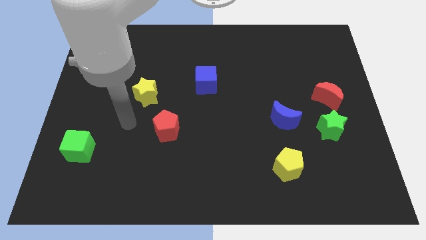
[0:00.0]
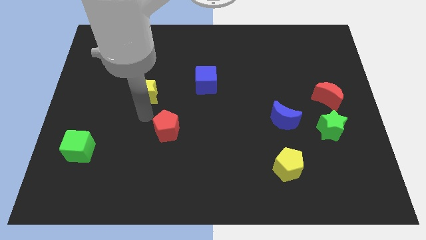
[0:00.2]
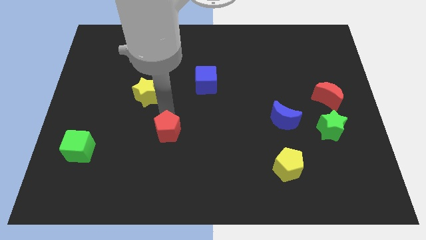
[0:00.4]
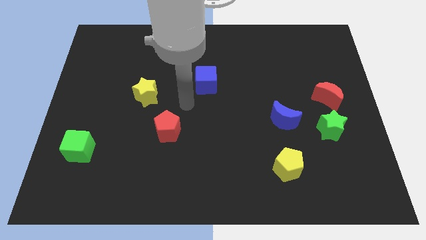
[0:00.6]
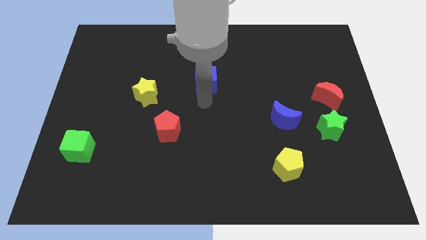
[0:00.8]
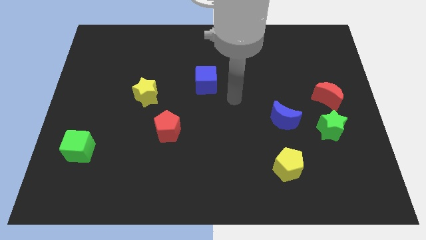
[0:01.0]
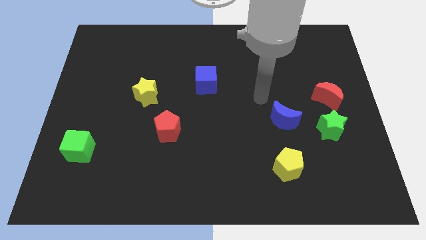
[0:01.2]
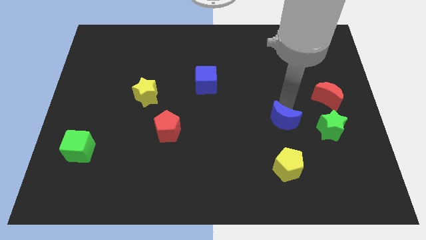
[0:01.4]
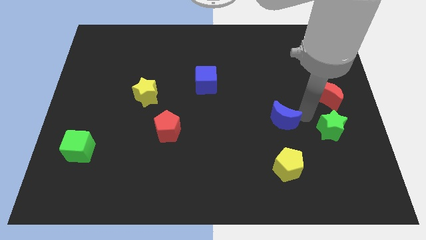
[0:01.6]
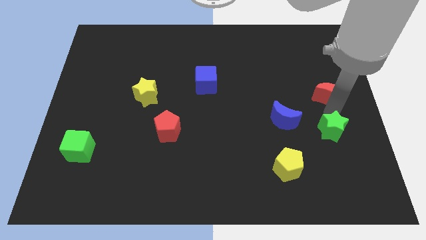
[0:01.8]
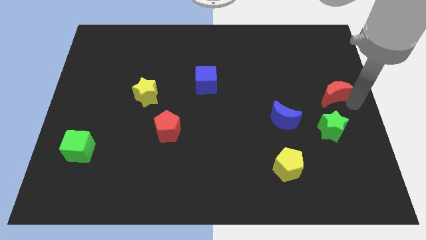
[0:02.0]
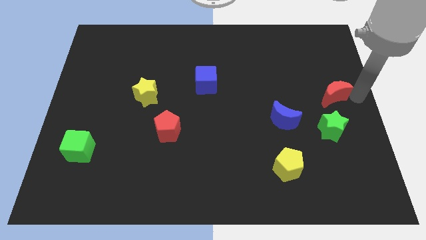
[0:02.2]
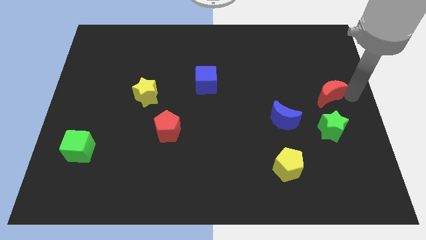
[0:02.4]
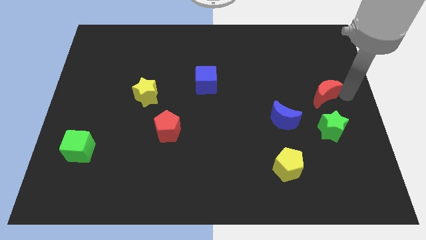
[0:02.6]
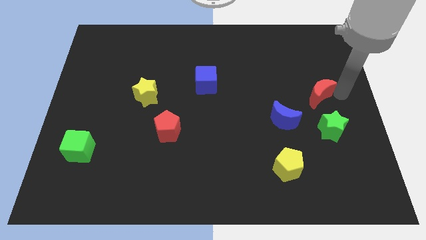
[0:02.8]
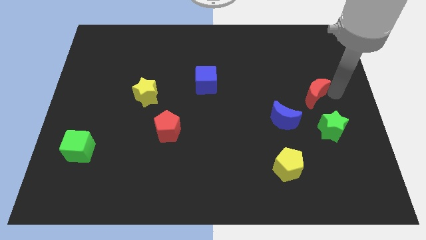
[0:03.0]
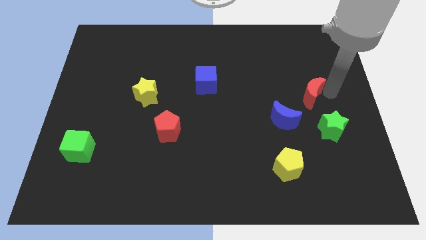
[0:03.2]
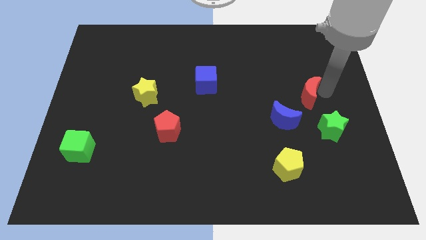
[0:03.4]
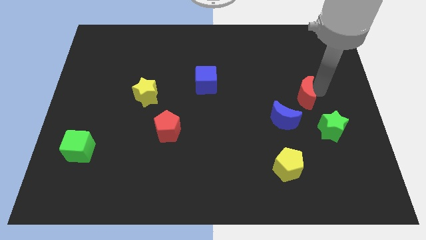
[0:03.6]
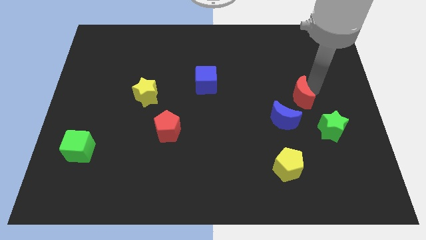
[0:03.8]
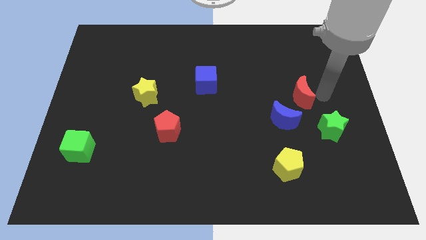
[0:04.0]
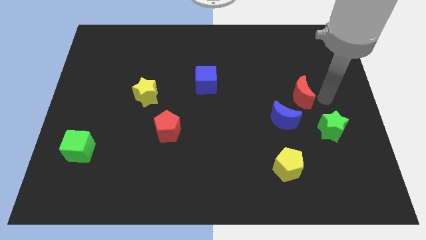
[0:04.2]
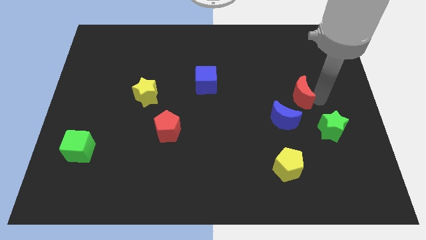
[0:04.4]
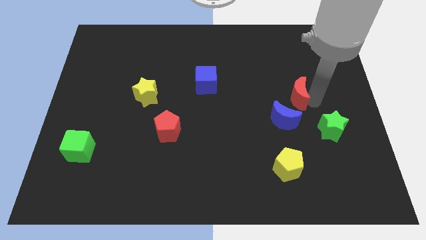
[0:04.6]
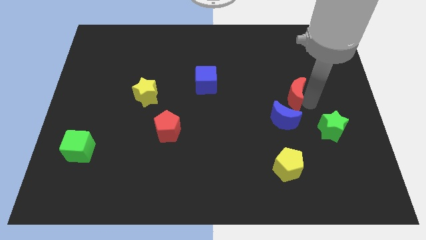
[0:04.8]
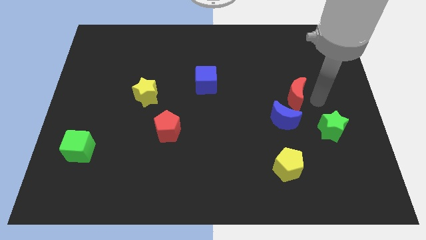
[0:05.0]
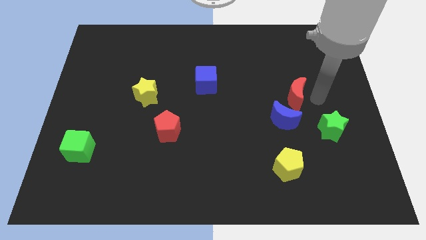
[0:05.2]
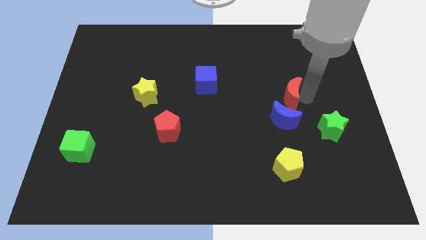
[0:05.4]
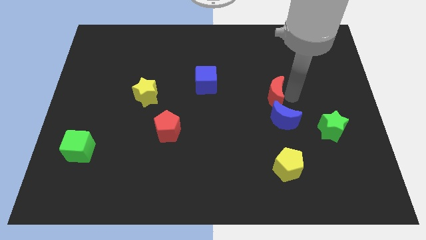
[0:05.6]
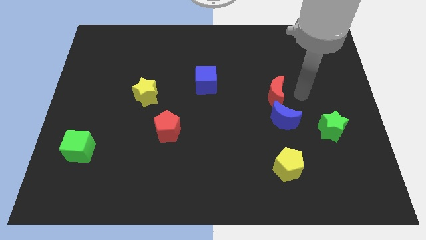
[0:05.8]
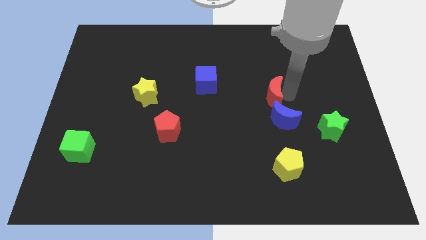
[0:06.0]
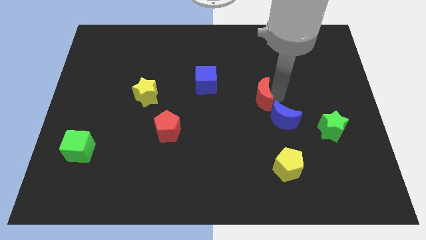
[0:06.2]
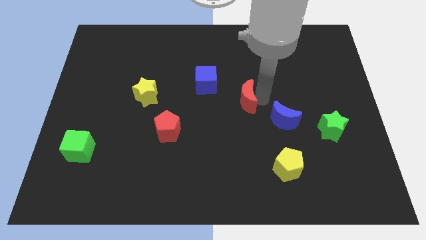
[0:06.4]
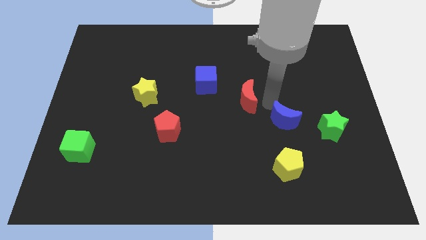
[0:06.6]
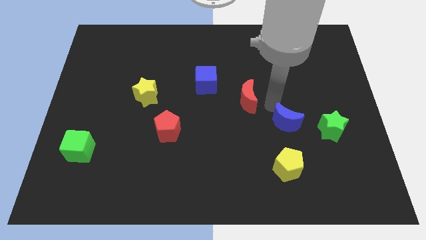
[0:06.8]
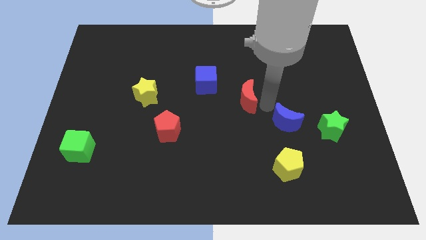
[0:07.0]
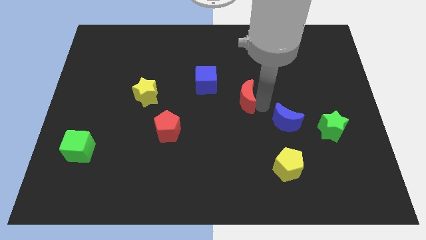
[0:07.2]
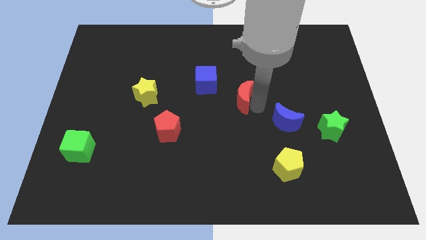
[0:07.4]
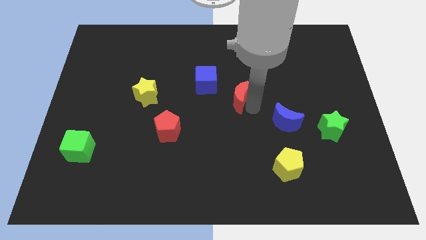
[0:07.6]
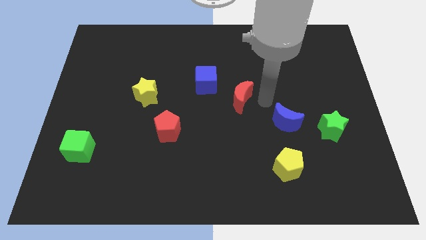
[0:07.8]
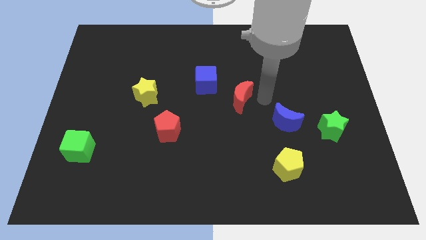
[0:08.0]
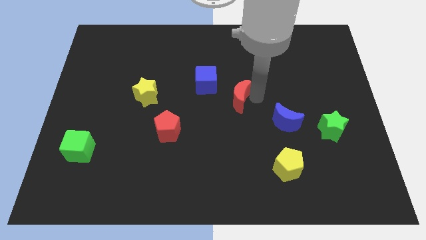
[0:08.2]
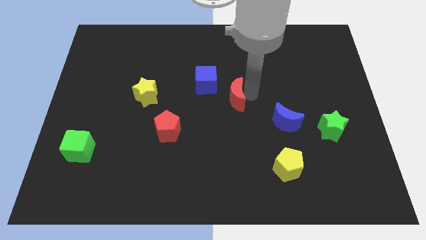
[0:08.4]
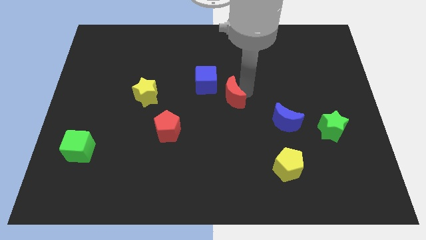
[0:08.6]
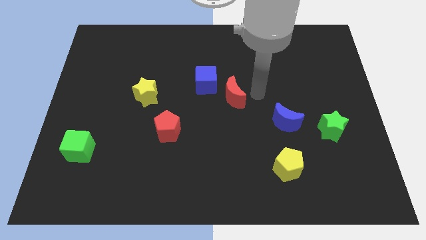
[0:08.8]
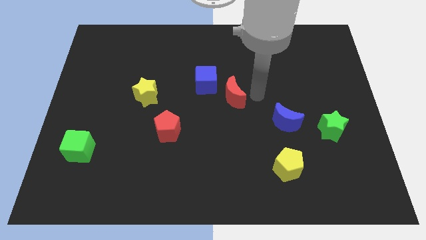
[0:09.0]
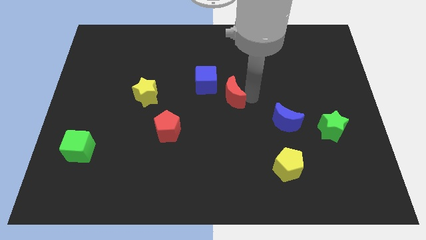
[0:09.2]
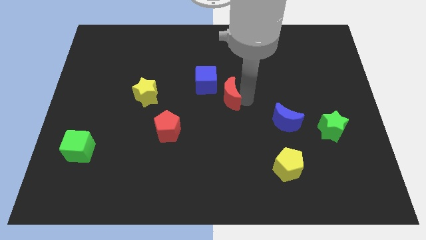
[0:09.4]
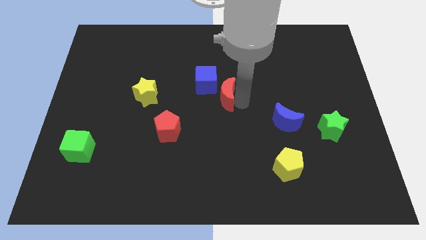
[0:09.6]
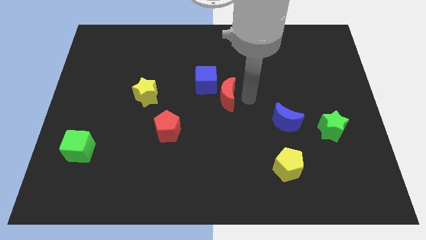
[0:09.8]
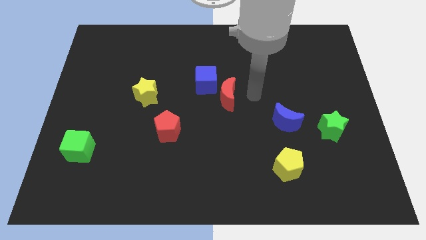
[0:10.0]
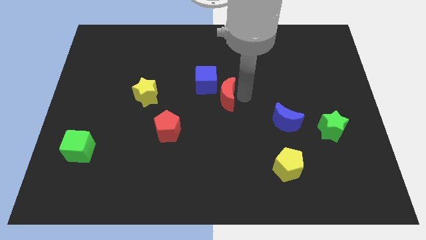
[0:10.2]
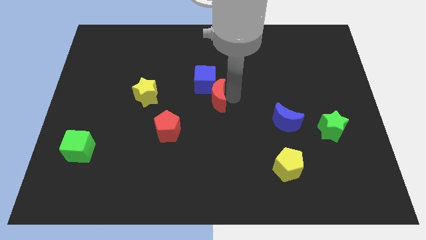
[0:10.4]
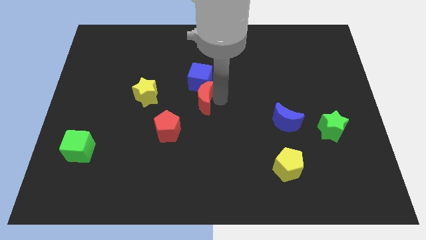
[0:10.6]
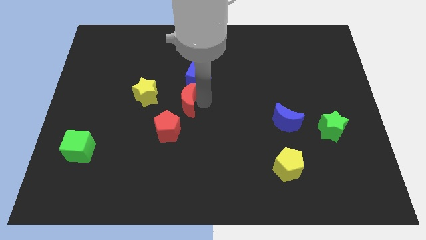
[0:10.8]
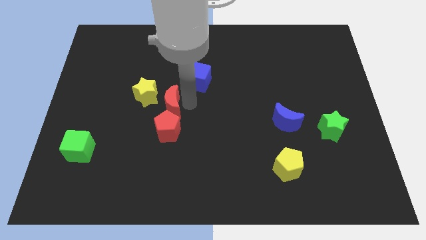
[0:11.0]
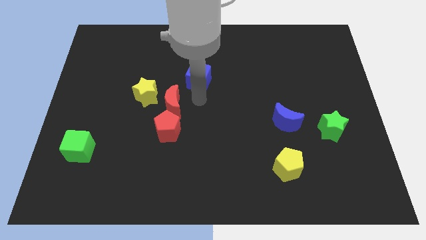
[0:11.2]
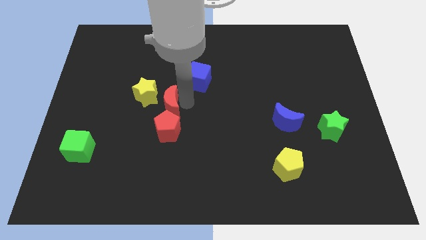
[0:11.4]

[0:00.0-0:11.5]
slide the red moon diagonally up and to the left of the red pentagon

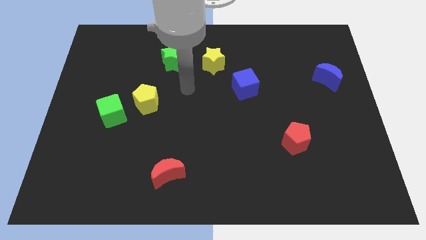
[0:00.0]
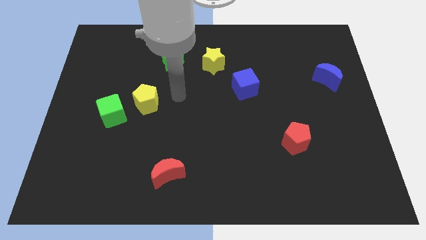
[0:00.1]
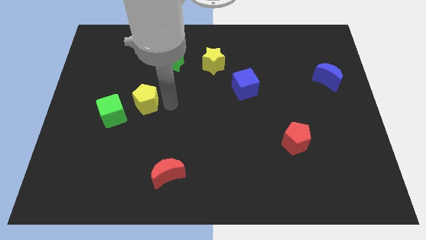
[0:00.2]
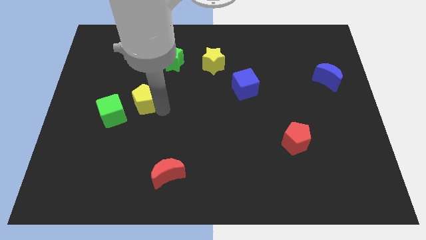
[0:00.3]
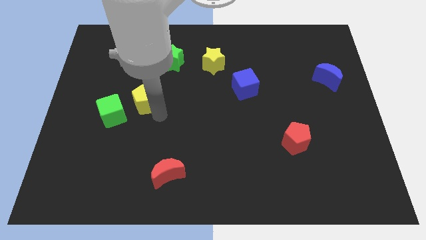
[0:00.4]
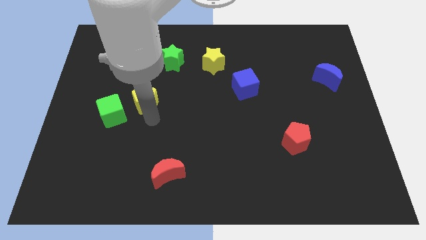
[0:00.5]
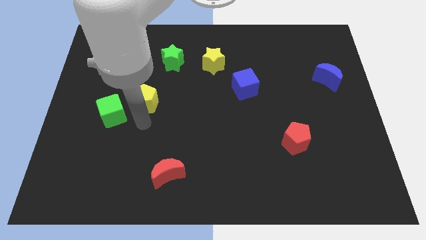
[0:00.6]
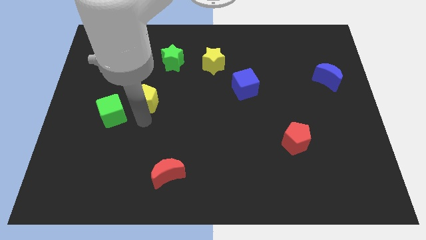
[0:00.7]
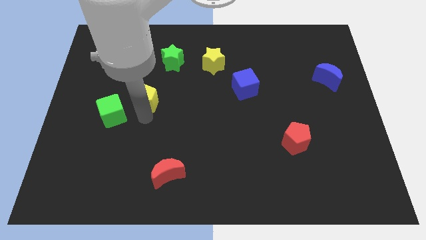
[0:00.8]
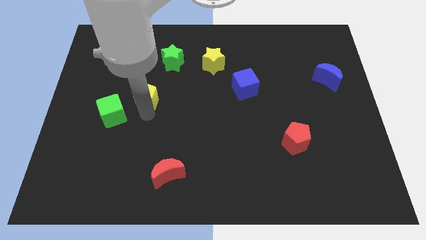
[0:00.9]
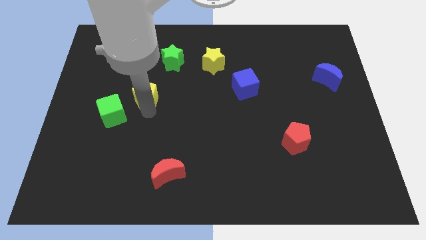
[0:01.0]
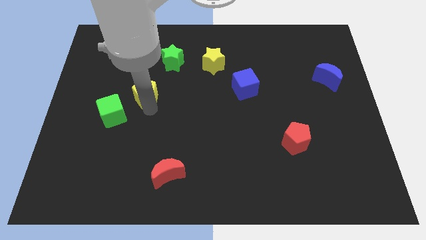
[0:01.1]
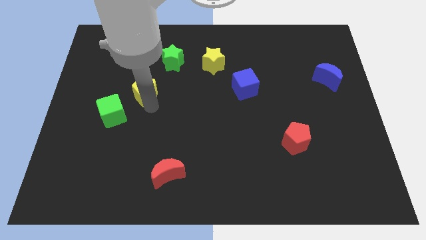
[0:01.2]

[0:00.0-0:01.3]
push the yellow pentagon to the bottom left side of the green star

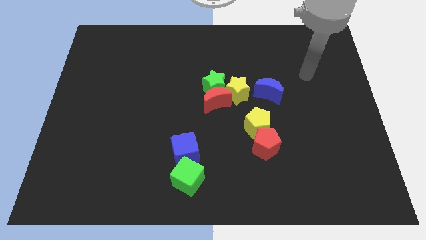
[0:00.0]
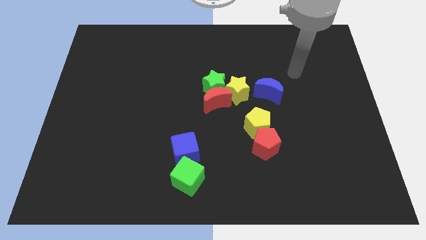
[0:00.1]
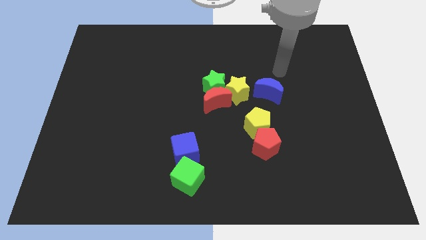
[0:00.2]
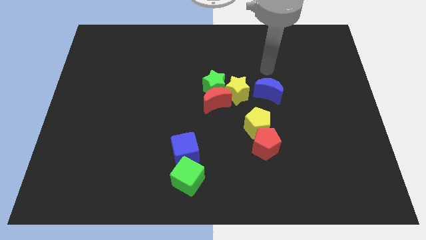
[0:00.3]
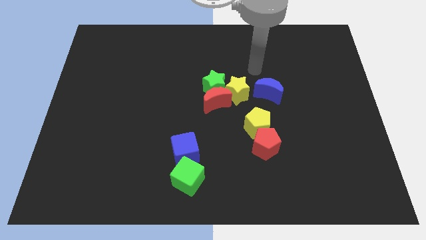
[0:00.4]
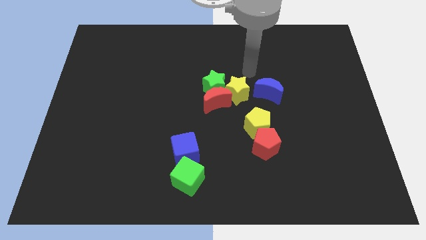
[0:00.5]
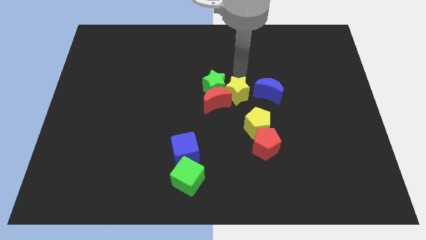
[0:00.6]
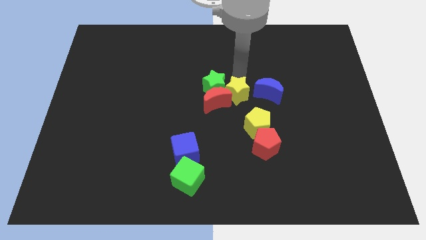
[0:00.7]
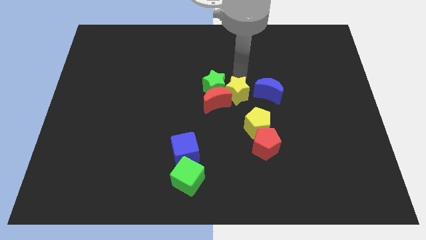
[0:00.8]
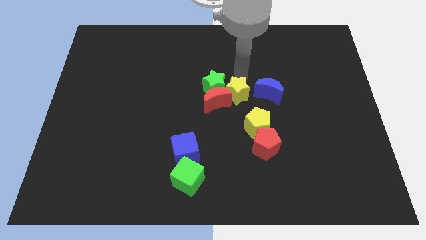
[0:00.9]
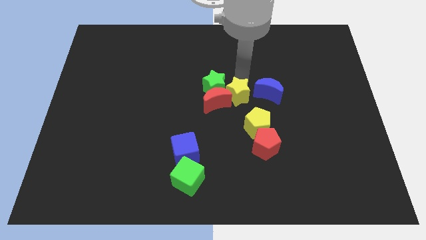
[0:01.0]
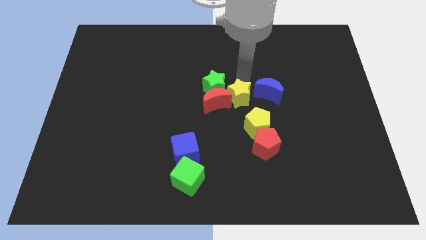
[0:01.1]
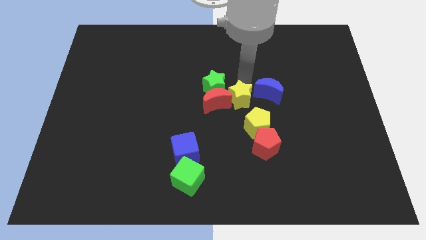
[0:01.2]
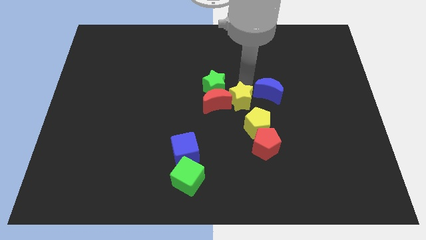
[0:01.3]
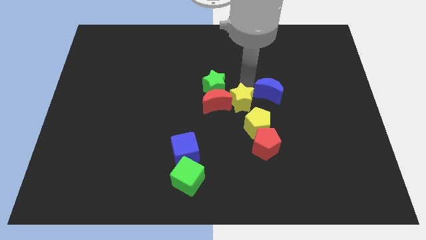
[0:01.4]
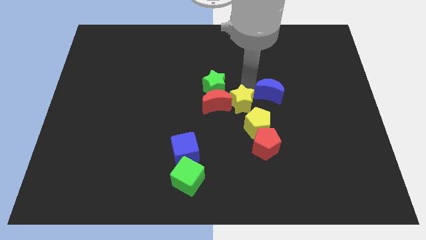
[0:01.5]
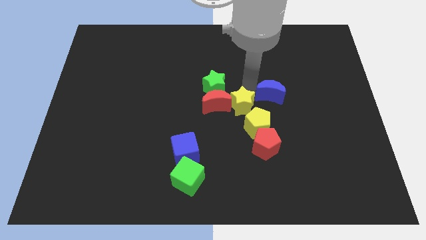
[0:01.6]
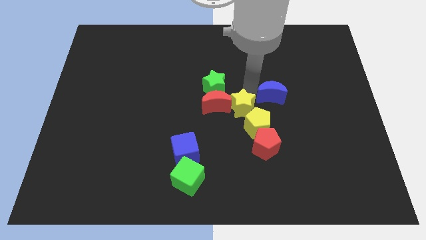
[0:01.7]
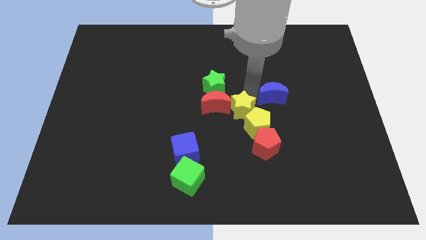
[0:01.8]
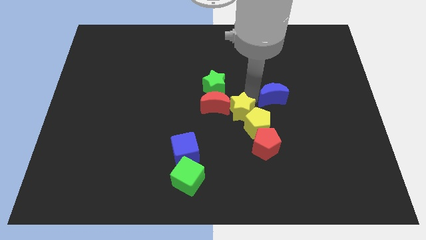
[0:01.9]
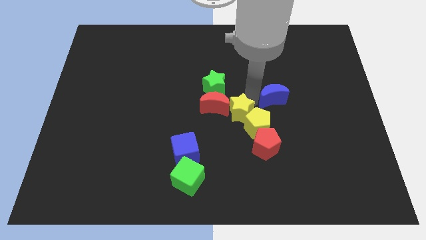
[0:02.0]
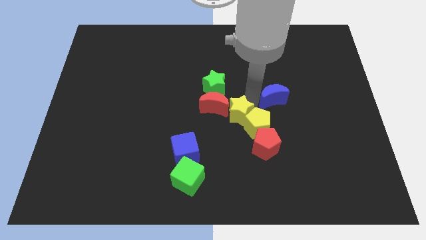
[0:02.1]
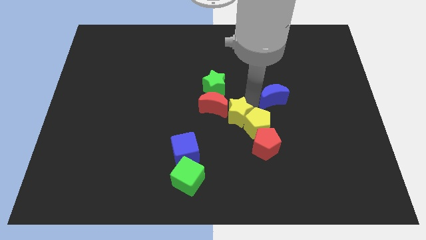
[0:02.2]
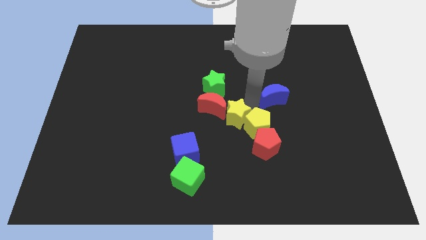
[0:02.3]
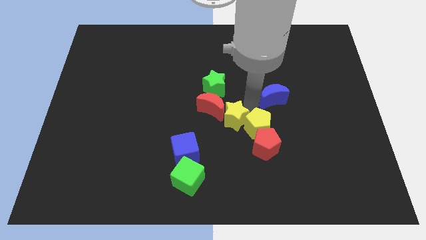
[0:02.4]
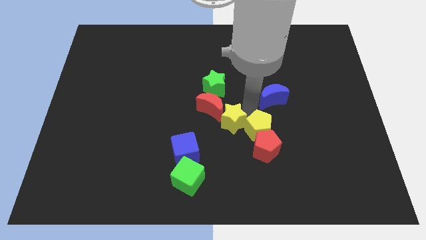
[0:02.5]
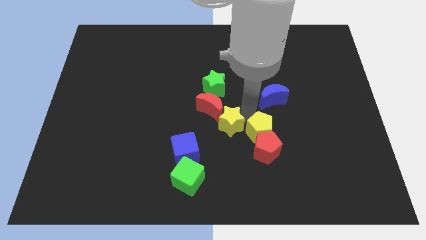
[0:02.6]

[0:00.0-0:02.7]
move the yellow star to the bottom of the red moon
